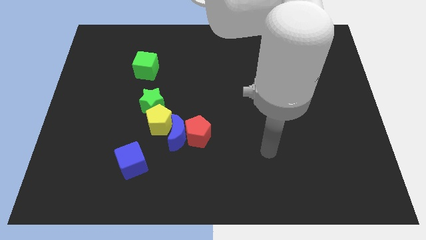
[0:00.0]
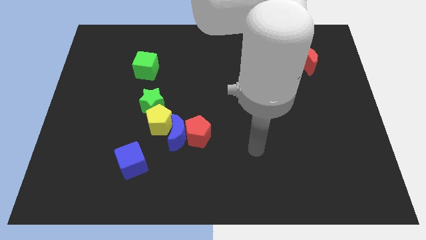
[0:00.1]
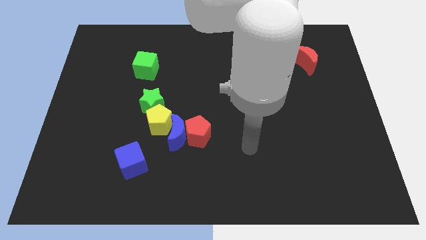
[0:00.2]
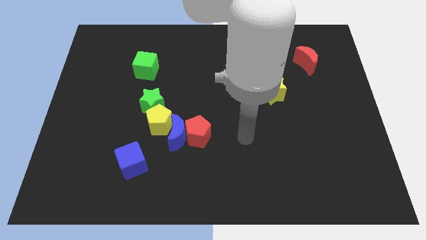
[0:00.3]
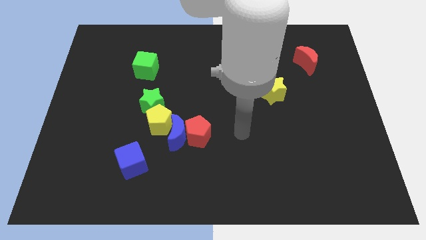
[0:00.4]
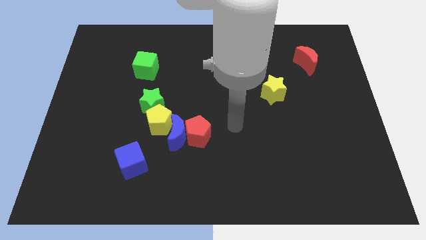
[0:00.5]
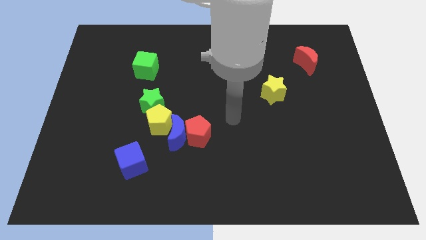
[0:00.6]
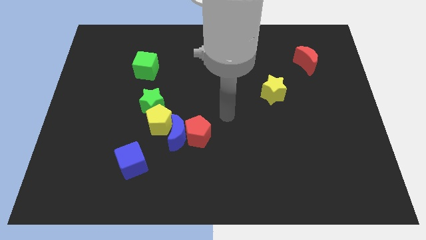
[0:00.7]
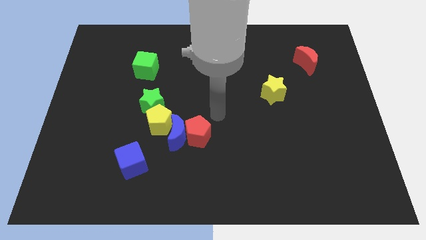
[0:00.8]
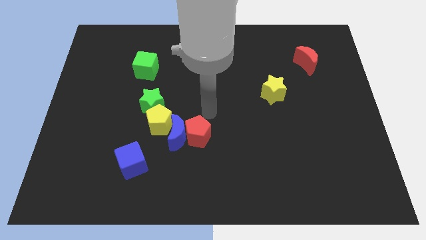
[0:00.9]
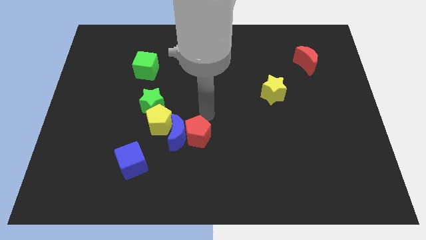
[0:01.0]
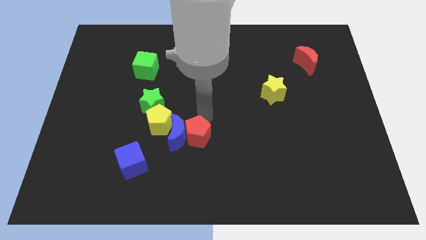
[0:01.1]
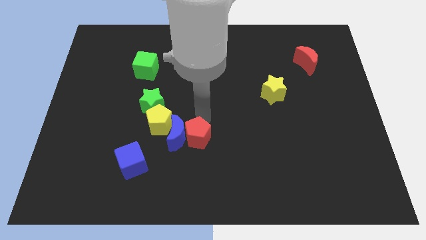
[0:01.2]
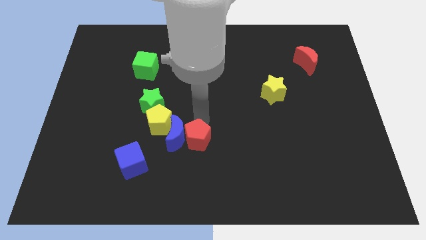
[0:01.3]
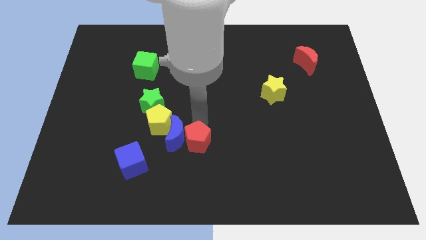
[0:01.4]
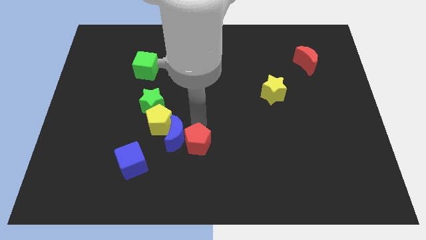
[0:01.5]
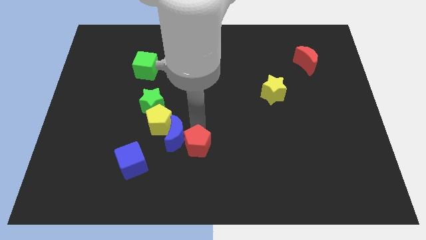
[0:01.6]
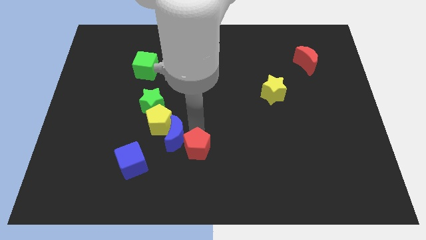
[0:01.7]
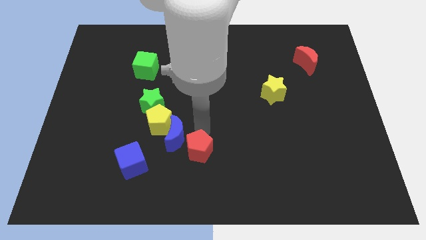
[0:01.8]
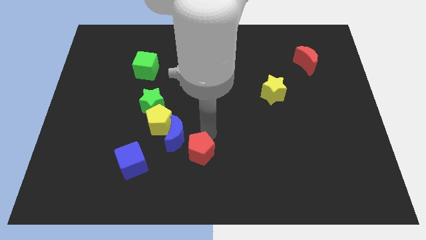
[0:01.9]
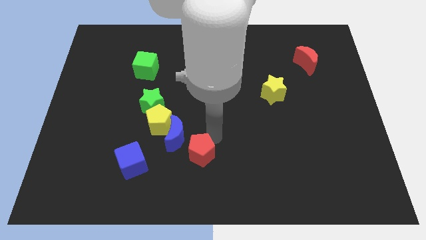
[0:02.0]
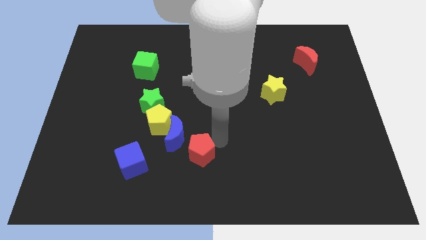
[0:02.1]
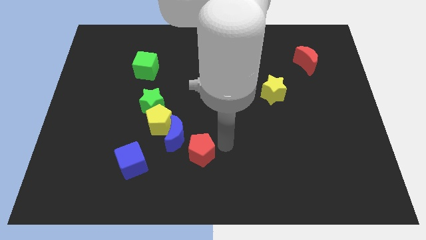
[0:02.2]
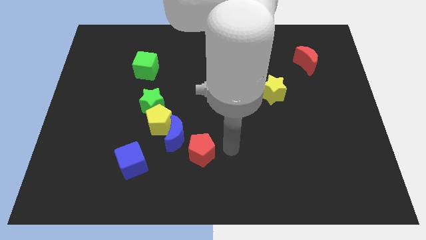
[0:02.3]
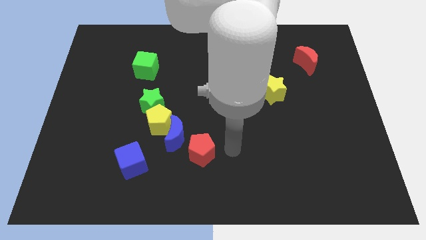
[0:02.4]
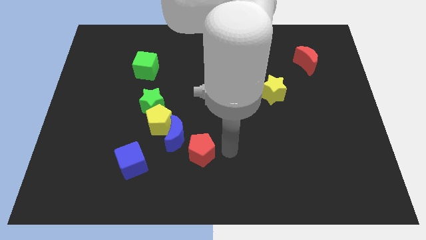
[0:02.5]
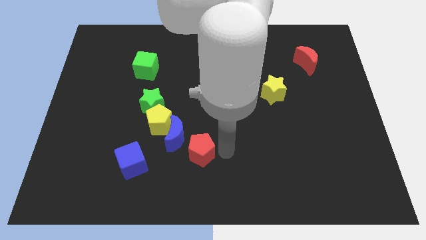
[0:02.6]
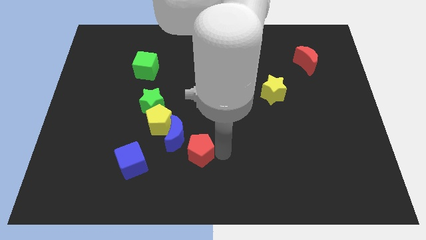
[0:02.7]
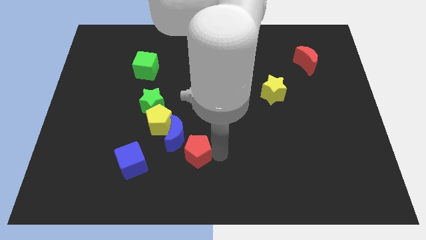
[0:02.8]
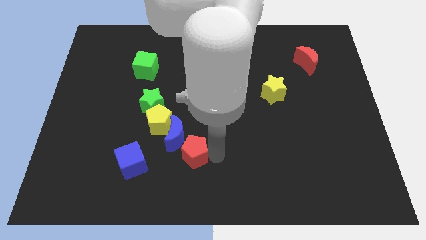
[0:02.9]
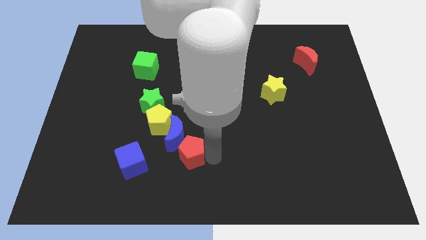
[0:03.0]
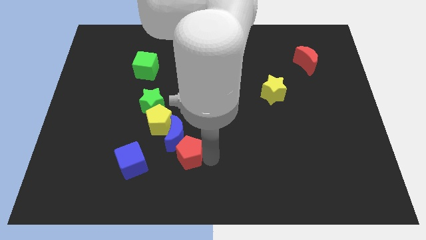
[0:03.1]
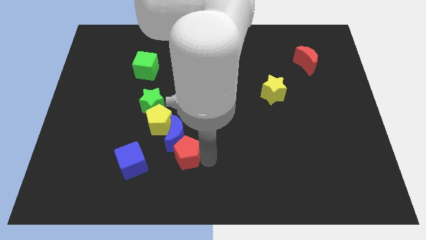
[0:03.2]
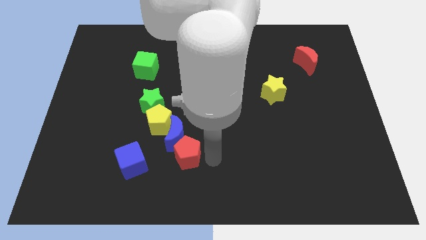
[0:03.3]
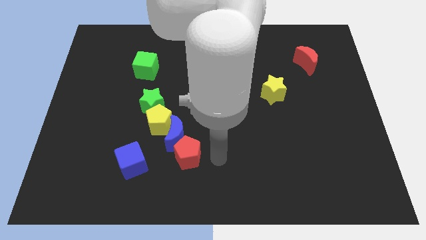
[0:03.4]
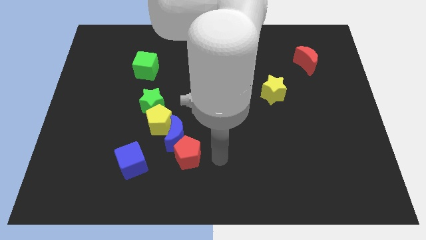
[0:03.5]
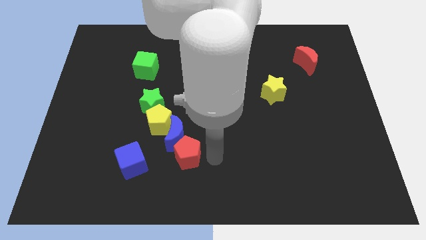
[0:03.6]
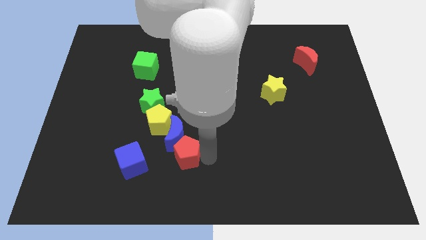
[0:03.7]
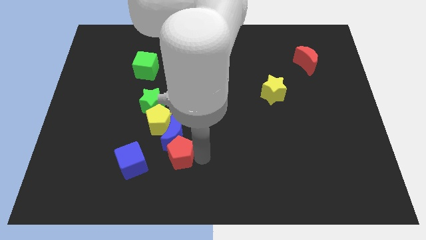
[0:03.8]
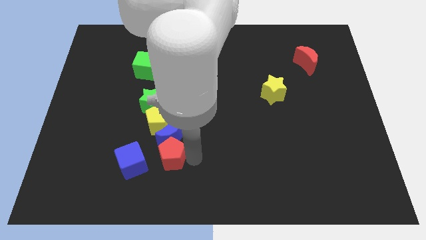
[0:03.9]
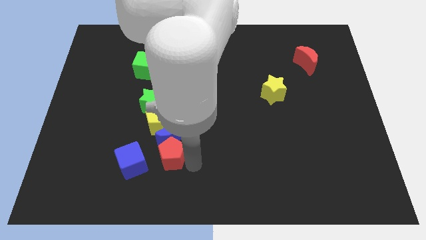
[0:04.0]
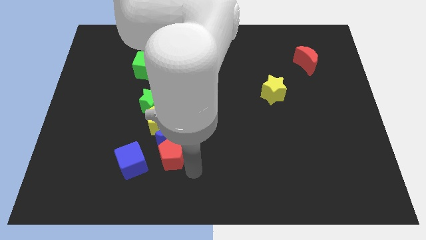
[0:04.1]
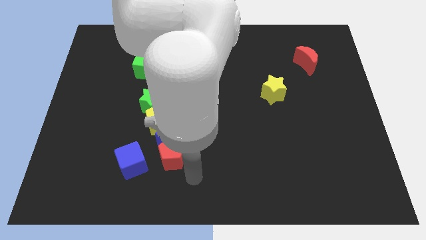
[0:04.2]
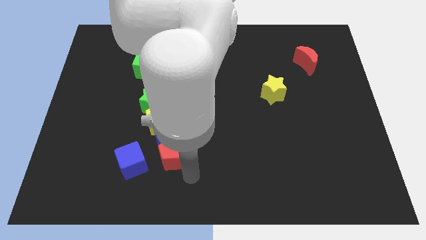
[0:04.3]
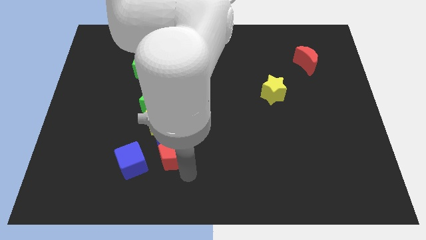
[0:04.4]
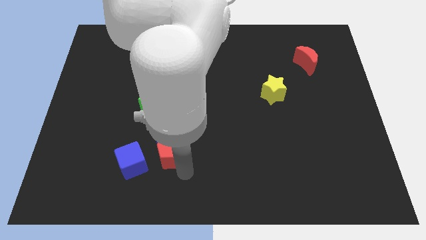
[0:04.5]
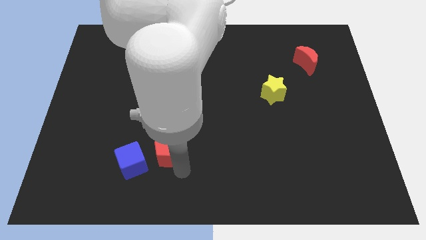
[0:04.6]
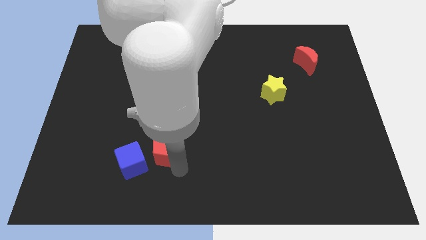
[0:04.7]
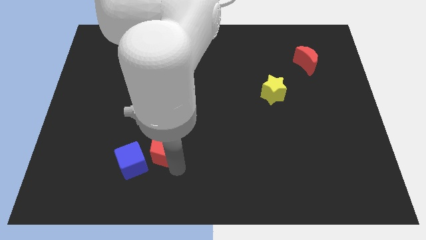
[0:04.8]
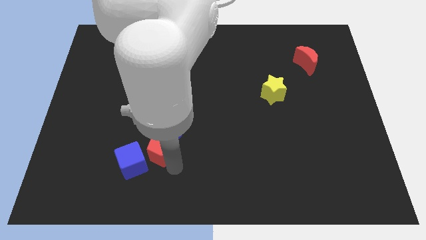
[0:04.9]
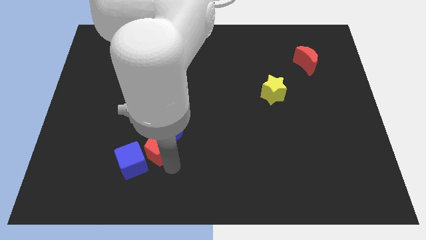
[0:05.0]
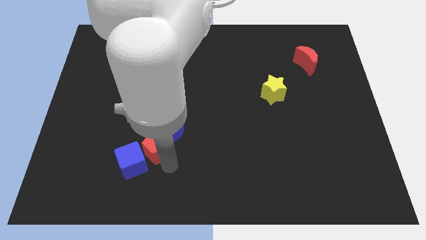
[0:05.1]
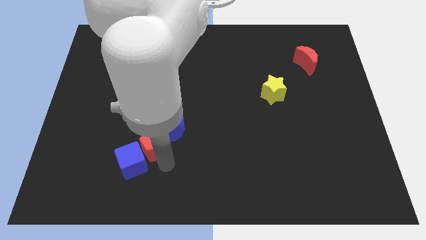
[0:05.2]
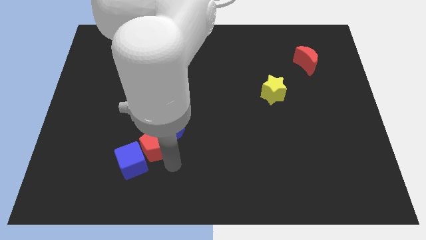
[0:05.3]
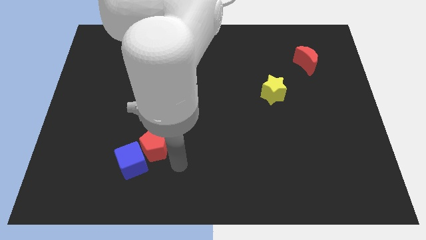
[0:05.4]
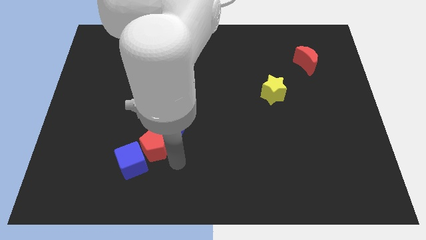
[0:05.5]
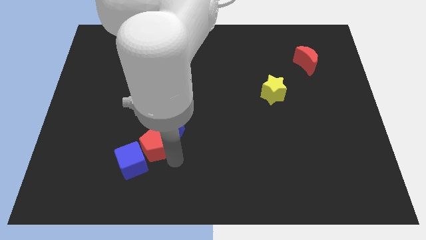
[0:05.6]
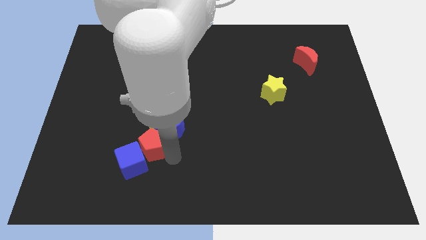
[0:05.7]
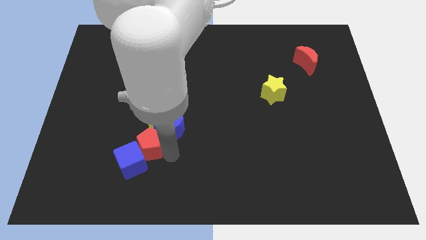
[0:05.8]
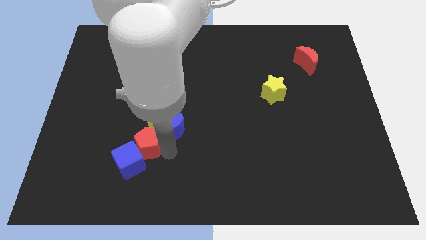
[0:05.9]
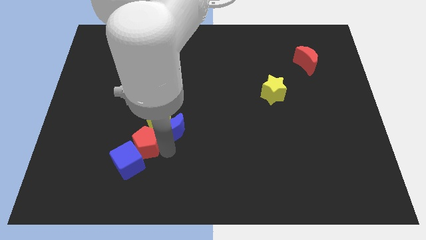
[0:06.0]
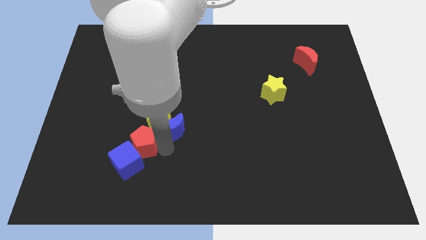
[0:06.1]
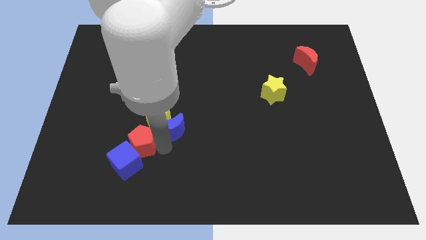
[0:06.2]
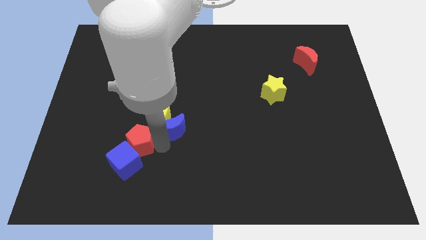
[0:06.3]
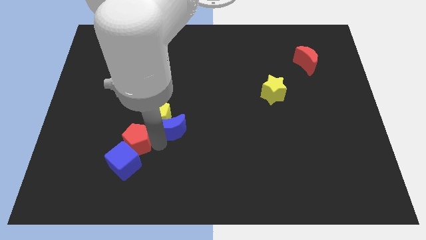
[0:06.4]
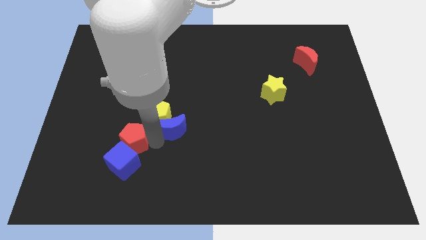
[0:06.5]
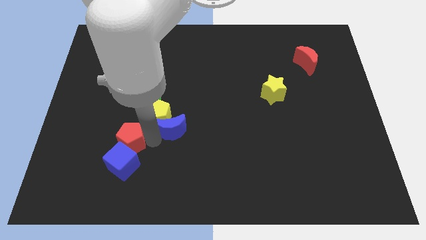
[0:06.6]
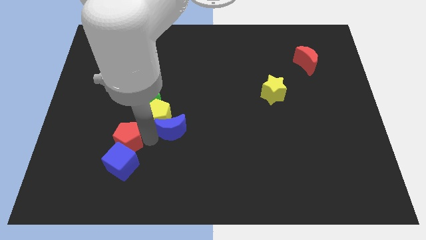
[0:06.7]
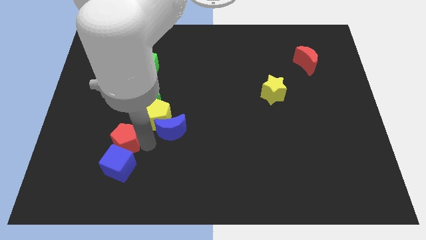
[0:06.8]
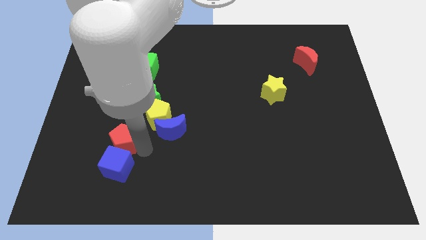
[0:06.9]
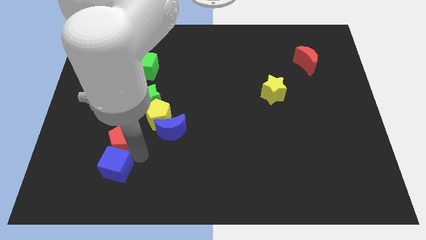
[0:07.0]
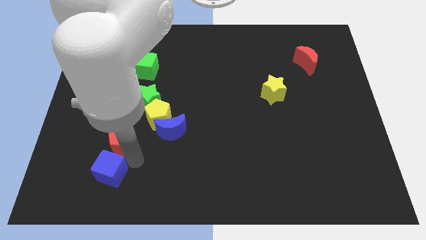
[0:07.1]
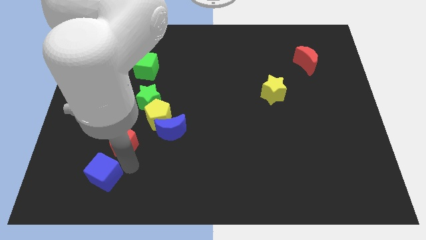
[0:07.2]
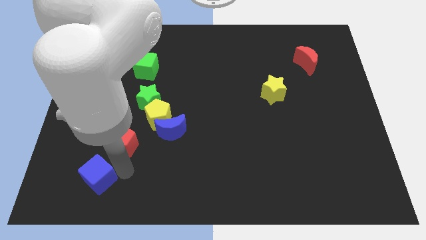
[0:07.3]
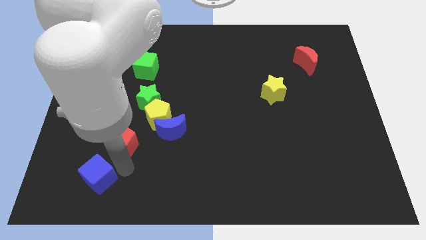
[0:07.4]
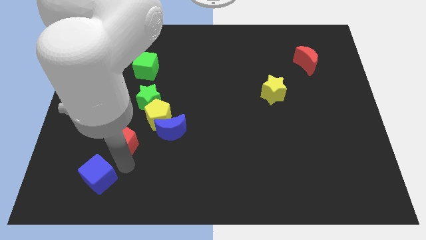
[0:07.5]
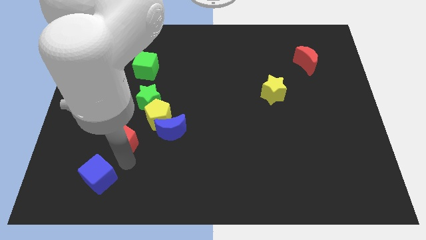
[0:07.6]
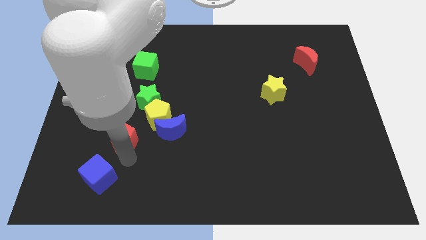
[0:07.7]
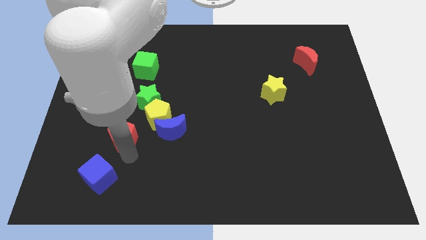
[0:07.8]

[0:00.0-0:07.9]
push the red pentagon to the bottom left of the green star
